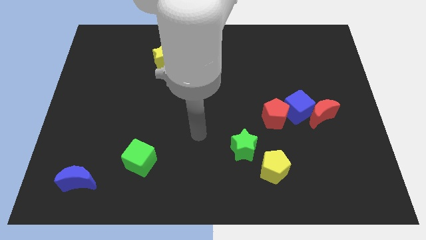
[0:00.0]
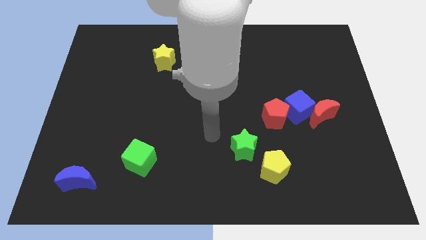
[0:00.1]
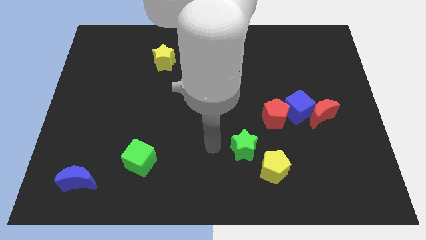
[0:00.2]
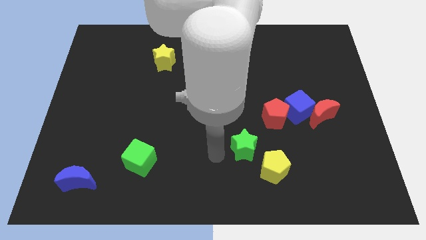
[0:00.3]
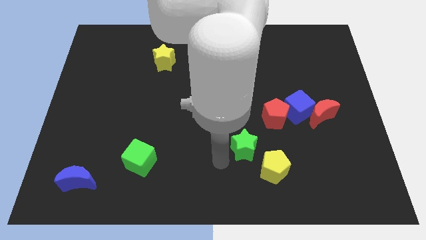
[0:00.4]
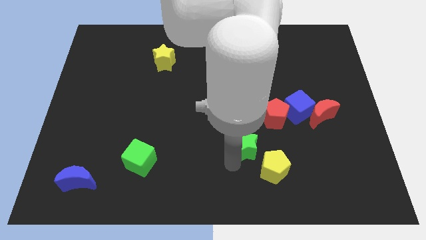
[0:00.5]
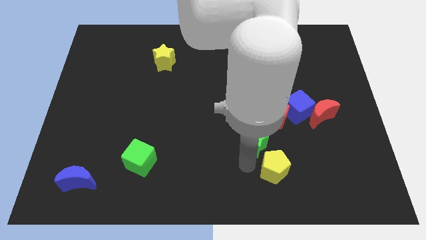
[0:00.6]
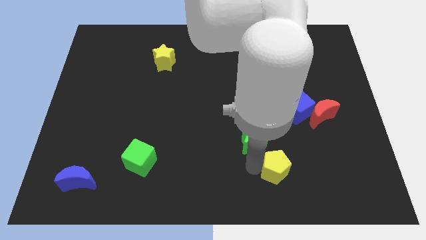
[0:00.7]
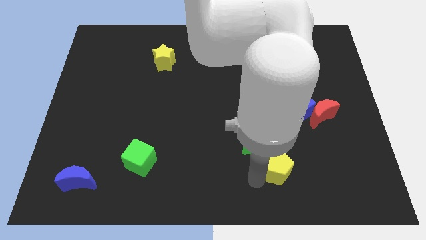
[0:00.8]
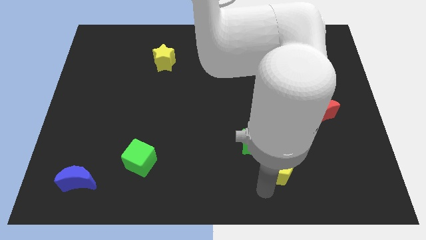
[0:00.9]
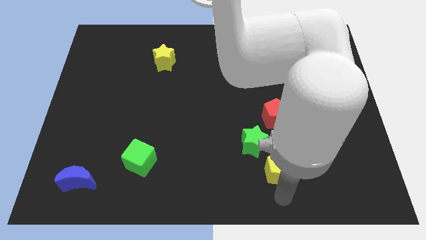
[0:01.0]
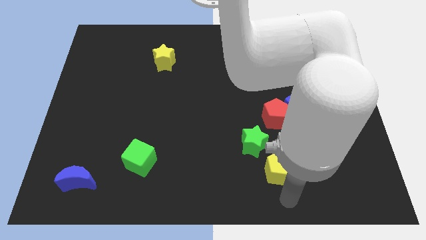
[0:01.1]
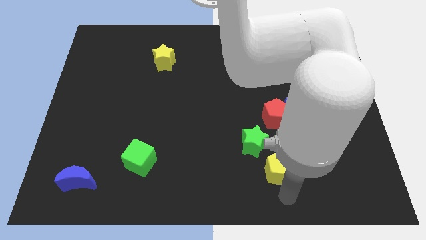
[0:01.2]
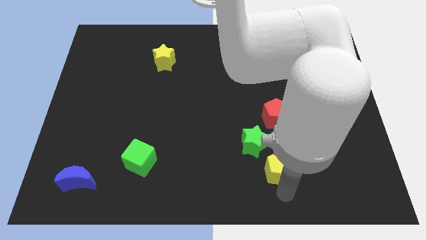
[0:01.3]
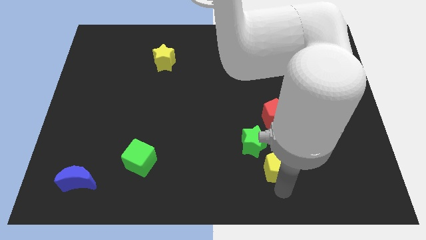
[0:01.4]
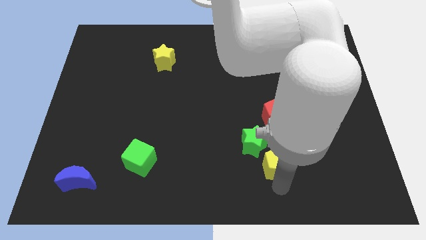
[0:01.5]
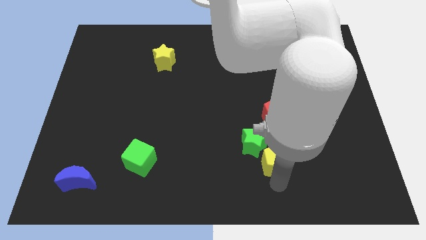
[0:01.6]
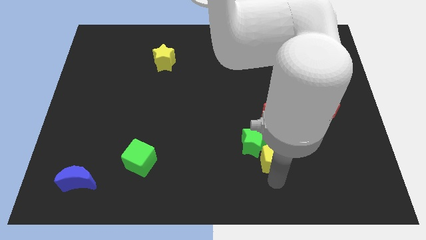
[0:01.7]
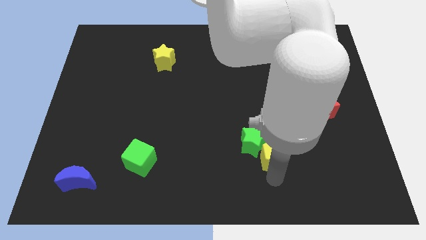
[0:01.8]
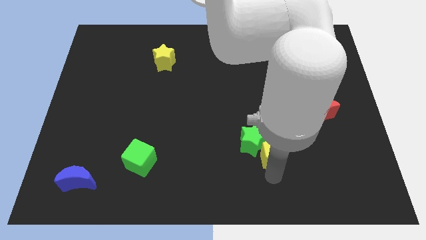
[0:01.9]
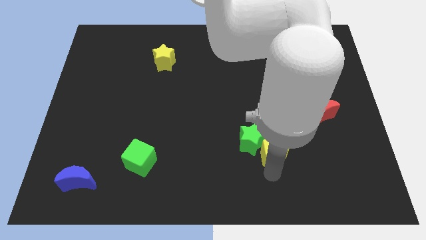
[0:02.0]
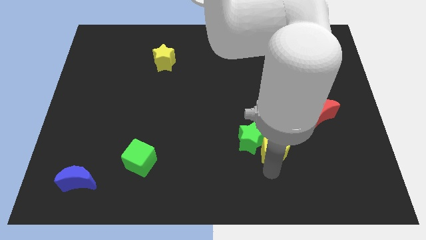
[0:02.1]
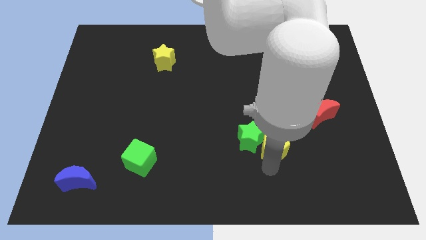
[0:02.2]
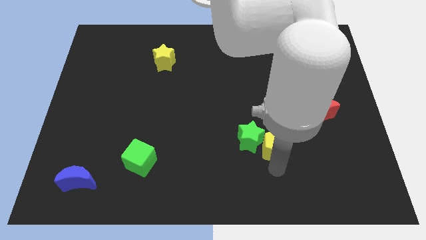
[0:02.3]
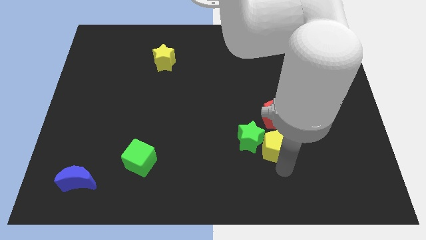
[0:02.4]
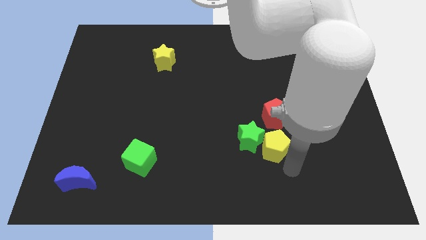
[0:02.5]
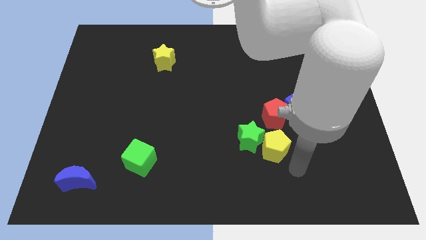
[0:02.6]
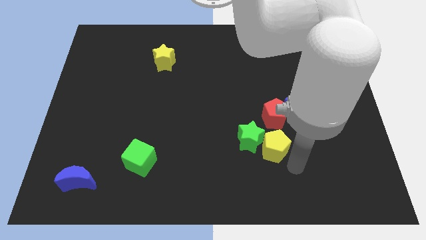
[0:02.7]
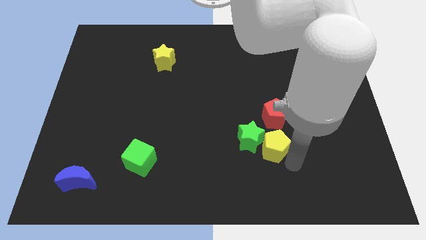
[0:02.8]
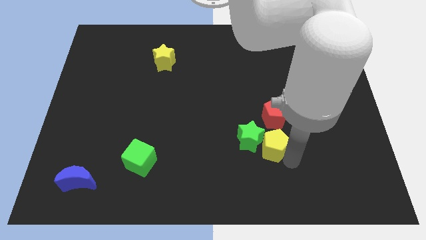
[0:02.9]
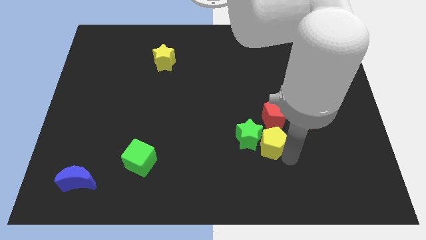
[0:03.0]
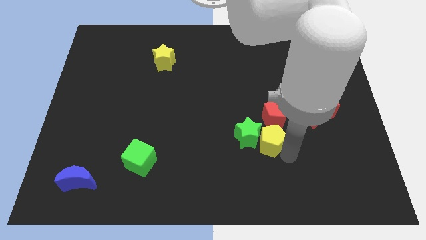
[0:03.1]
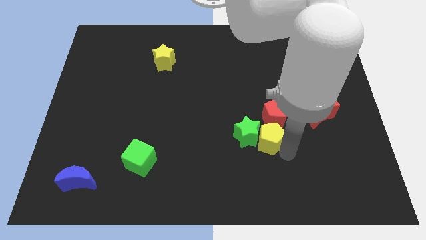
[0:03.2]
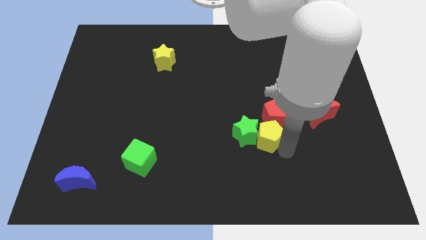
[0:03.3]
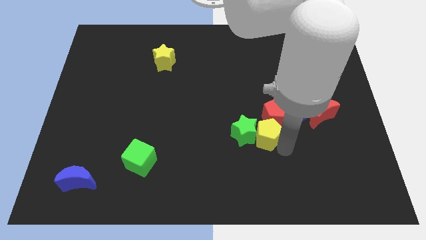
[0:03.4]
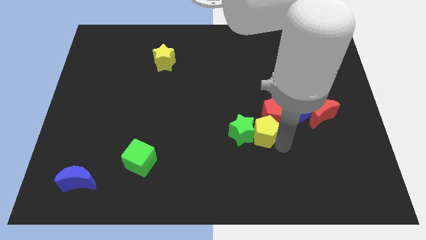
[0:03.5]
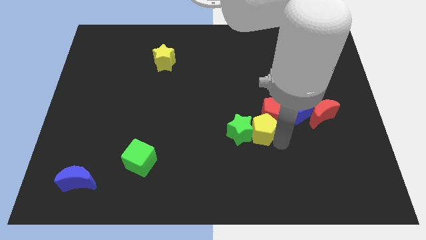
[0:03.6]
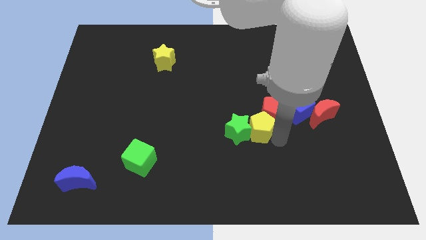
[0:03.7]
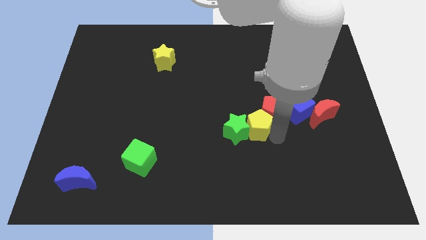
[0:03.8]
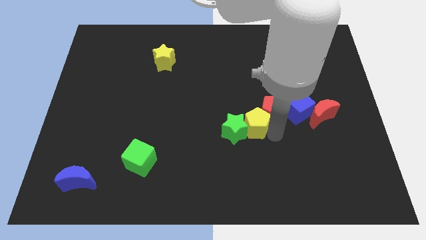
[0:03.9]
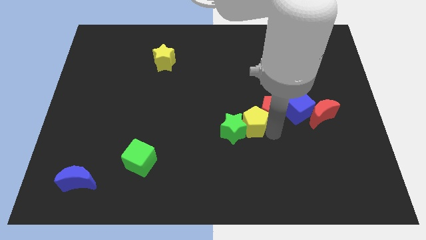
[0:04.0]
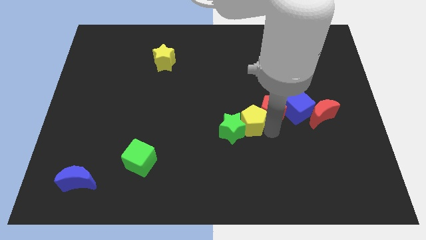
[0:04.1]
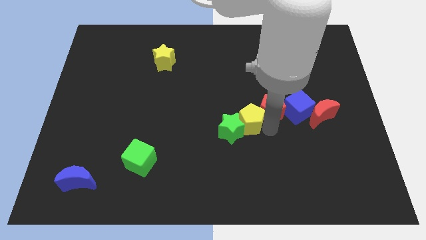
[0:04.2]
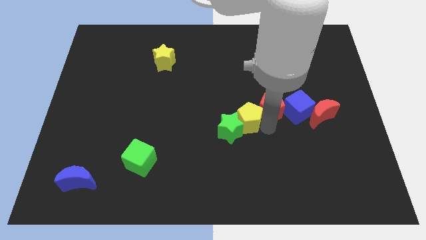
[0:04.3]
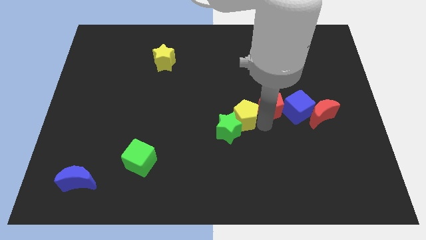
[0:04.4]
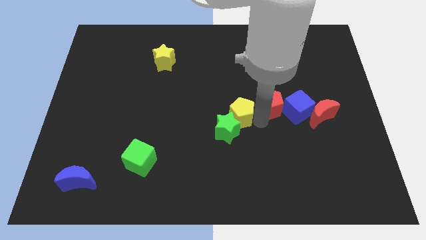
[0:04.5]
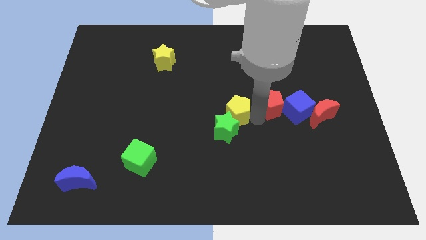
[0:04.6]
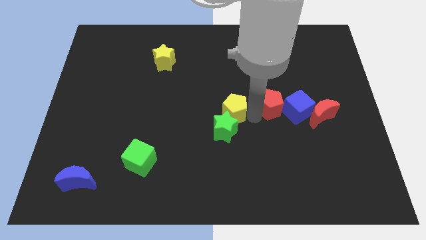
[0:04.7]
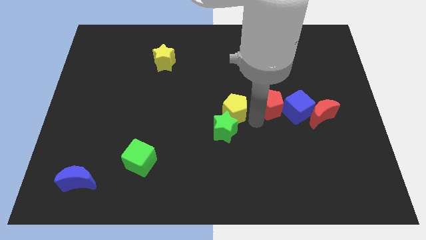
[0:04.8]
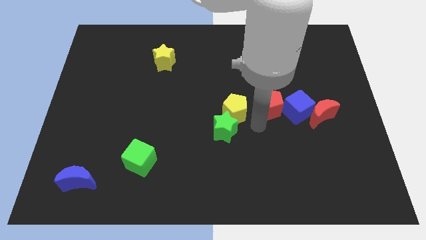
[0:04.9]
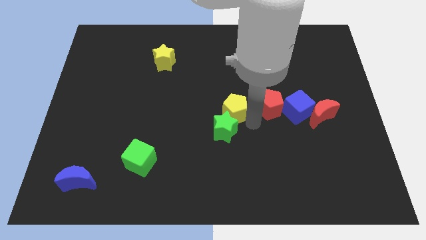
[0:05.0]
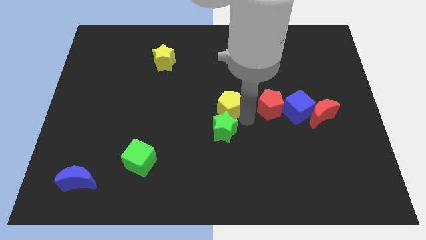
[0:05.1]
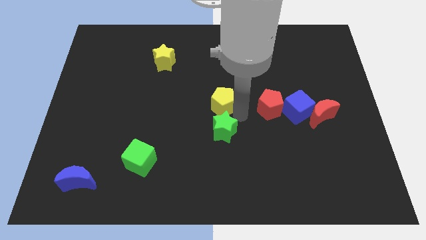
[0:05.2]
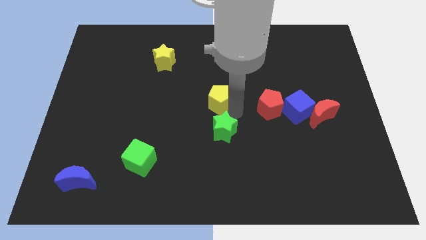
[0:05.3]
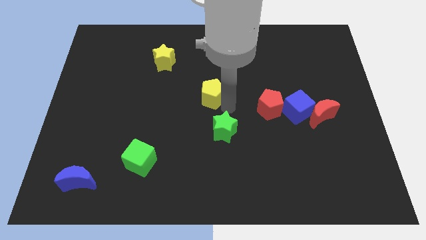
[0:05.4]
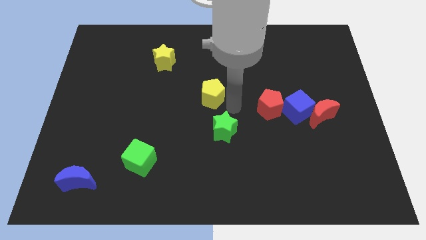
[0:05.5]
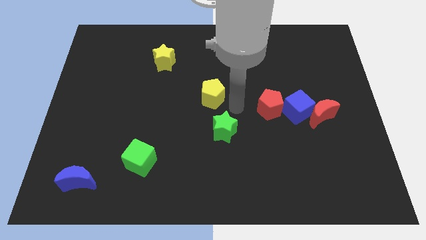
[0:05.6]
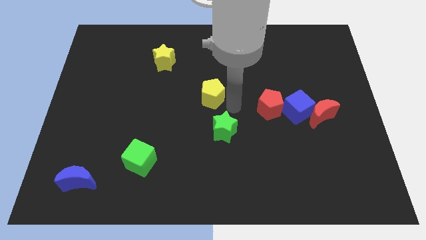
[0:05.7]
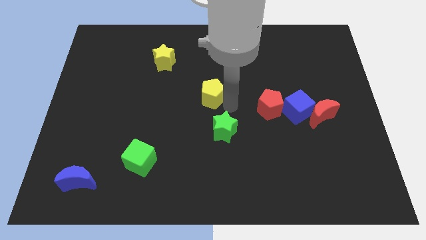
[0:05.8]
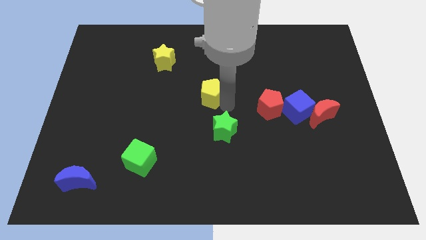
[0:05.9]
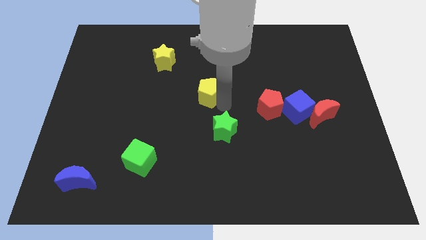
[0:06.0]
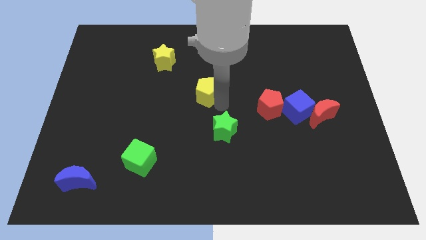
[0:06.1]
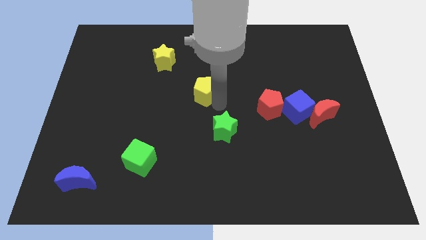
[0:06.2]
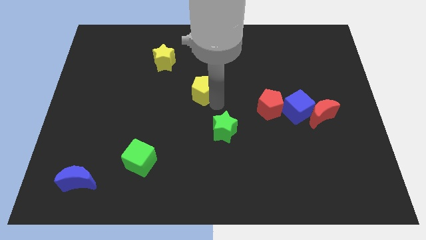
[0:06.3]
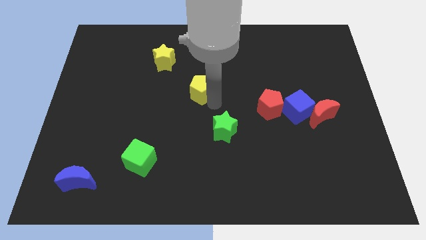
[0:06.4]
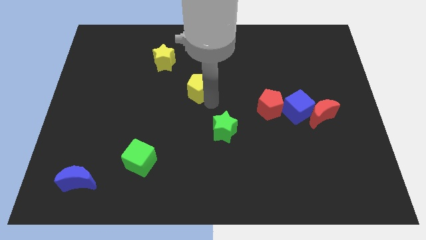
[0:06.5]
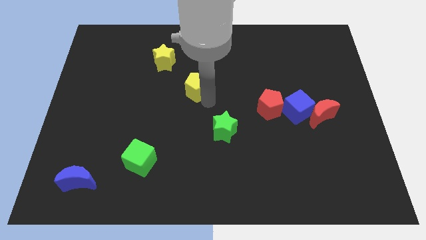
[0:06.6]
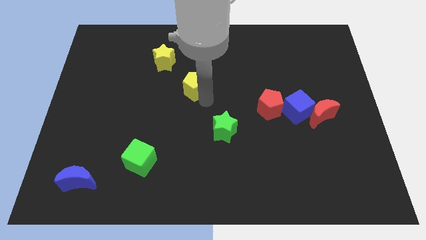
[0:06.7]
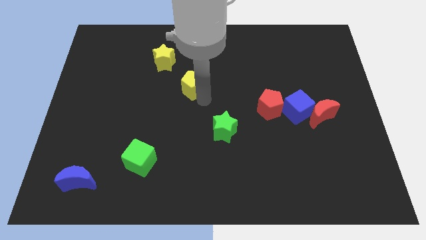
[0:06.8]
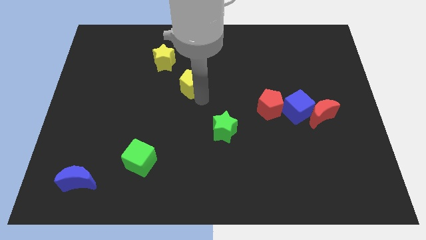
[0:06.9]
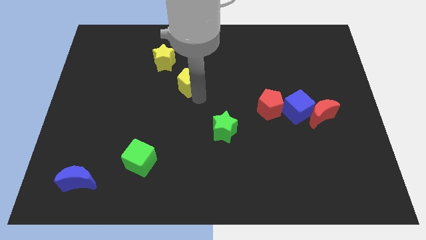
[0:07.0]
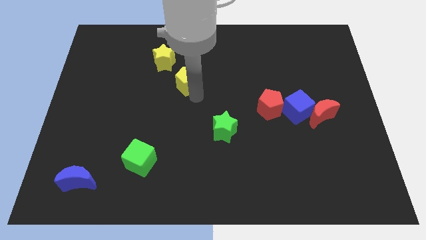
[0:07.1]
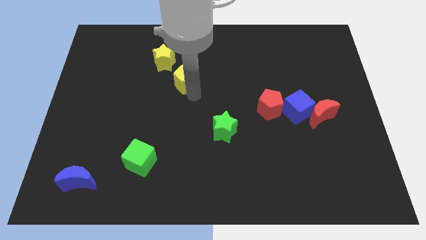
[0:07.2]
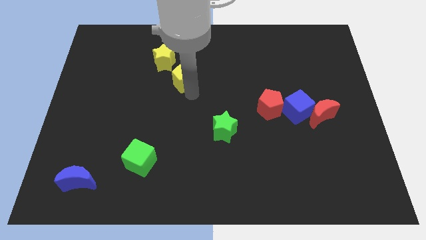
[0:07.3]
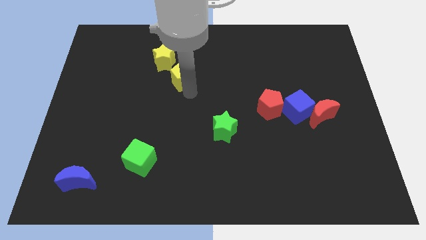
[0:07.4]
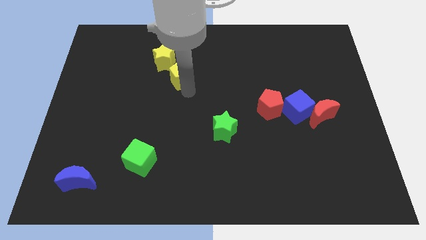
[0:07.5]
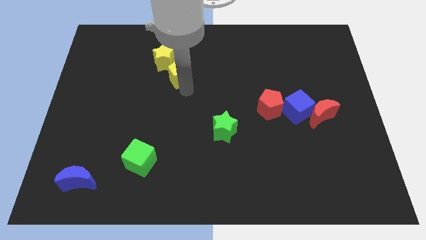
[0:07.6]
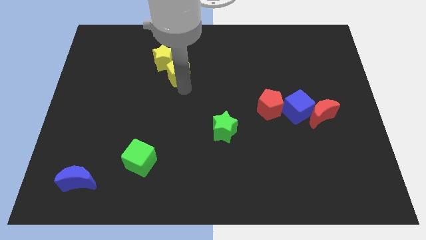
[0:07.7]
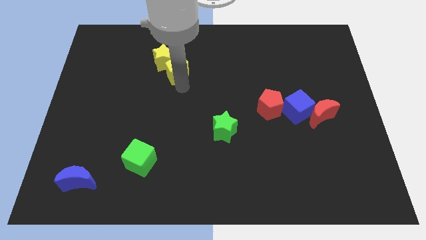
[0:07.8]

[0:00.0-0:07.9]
put the yellow pentagon close to the yellow star
